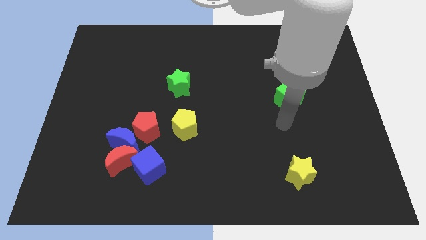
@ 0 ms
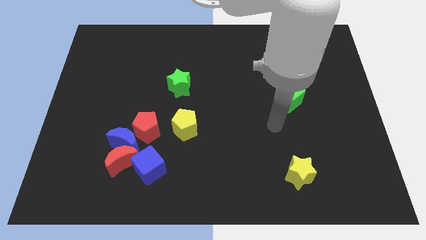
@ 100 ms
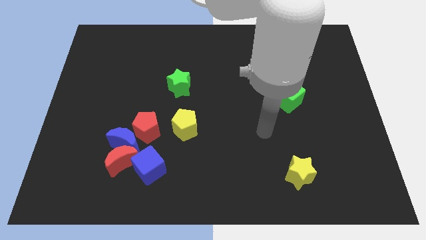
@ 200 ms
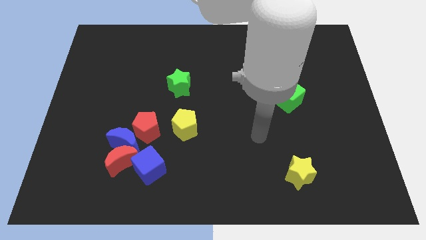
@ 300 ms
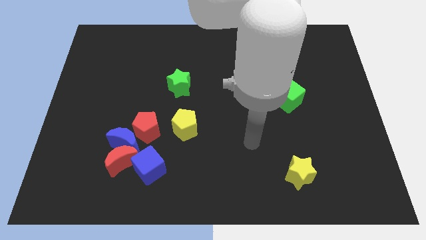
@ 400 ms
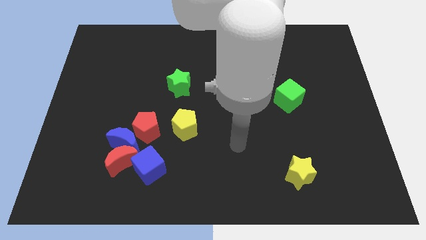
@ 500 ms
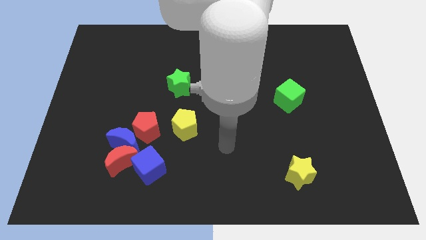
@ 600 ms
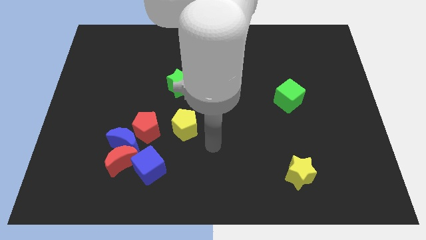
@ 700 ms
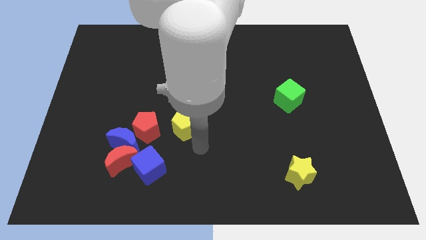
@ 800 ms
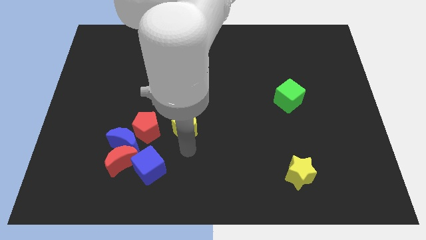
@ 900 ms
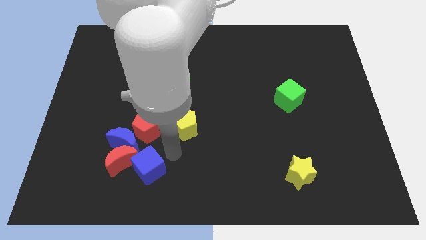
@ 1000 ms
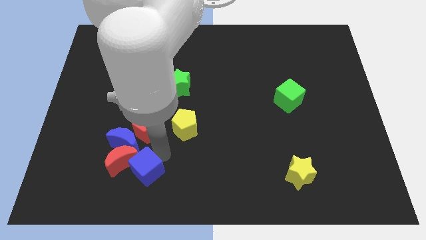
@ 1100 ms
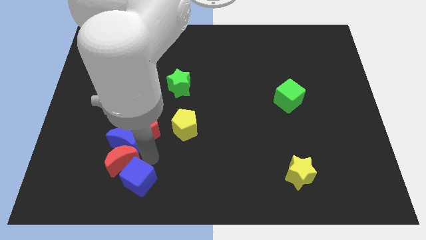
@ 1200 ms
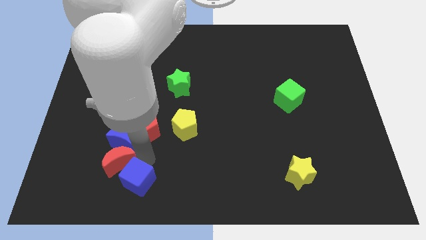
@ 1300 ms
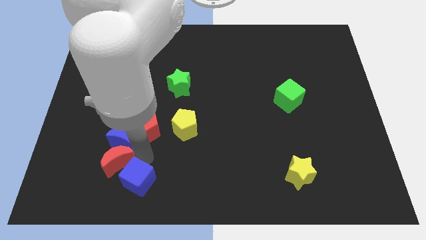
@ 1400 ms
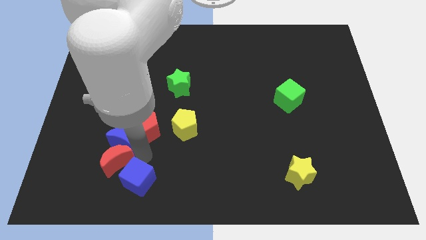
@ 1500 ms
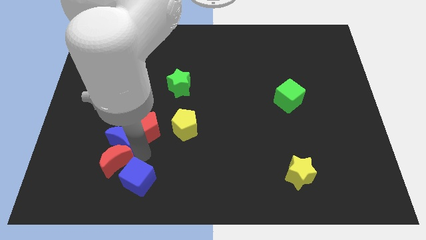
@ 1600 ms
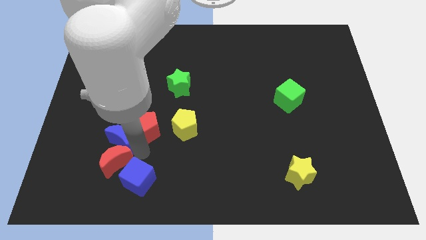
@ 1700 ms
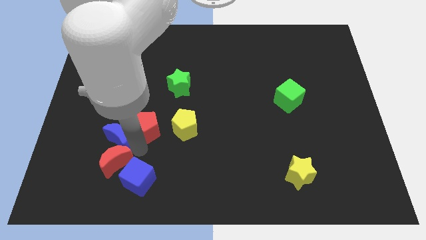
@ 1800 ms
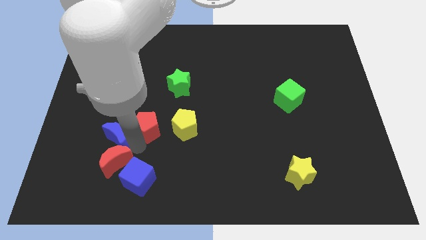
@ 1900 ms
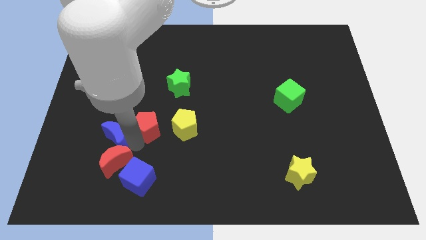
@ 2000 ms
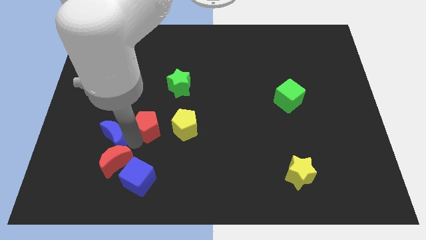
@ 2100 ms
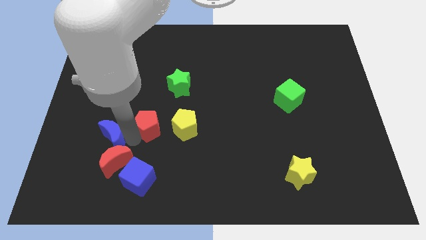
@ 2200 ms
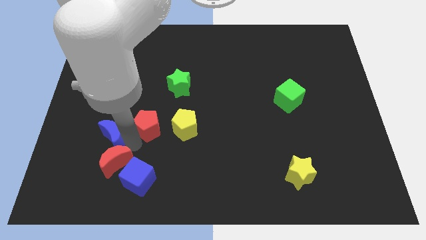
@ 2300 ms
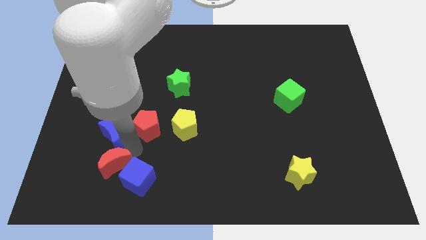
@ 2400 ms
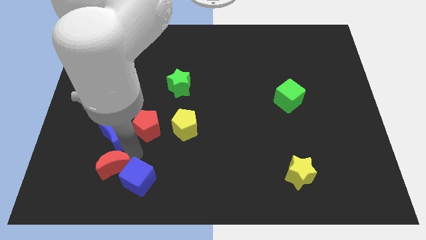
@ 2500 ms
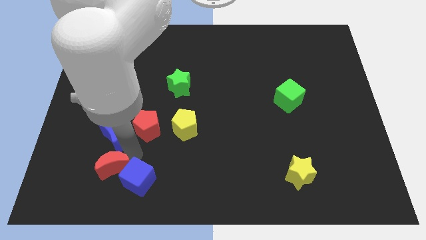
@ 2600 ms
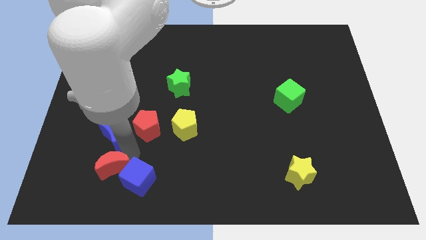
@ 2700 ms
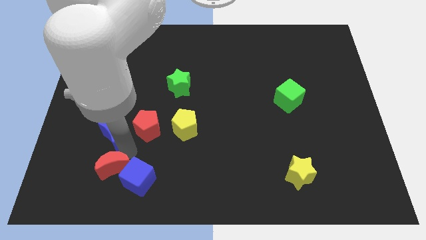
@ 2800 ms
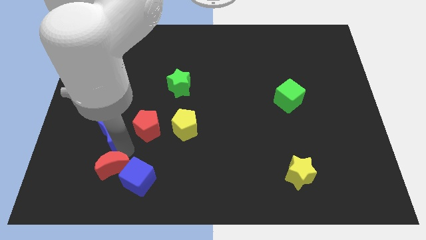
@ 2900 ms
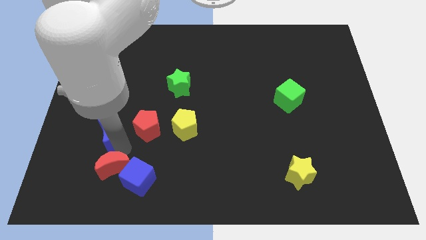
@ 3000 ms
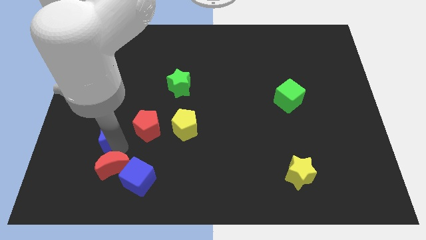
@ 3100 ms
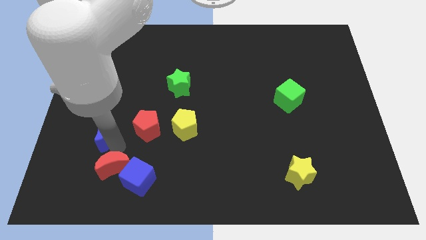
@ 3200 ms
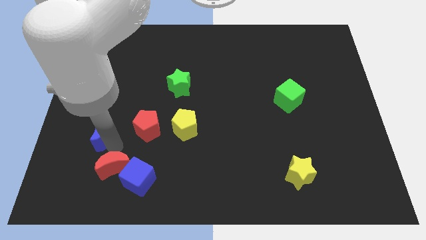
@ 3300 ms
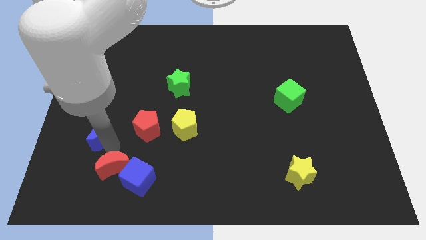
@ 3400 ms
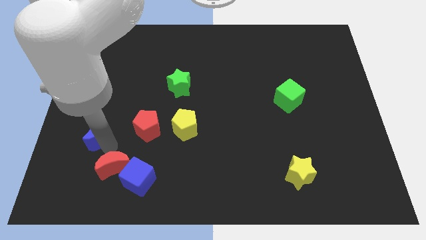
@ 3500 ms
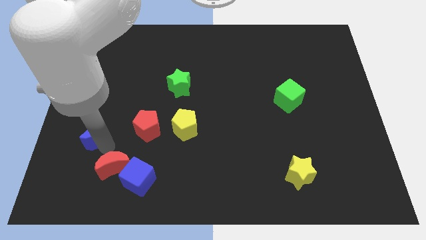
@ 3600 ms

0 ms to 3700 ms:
separate the blue moon from the red moon, red pentagon, and blue cube

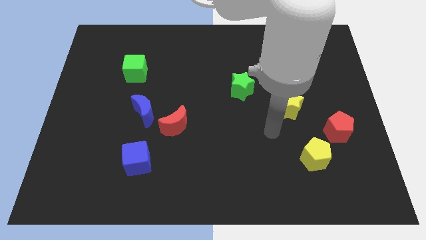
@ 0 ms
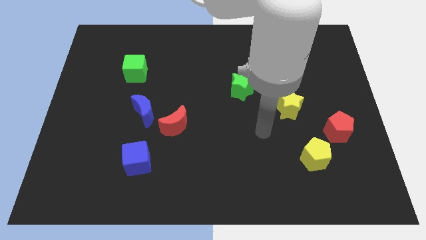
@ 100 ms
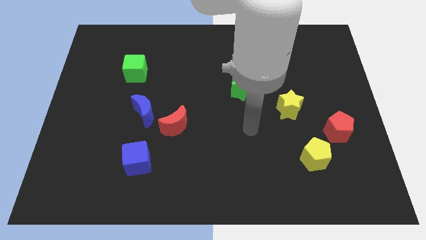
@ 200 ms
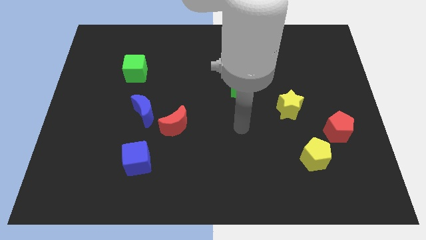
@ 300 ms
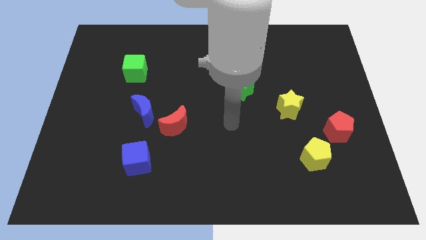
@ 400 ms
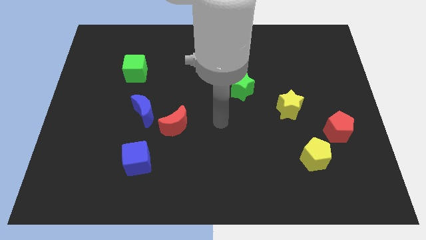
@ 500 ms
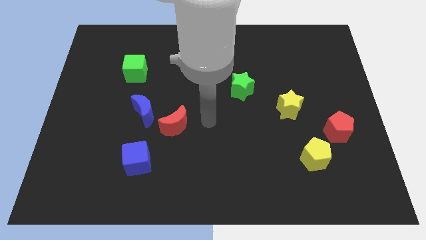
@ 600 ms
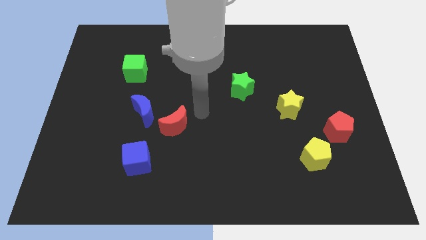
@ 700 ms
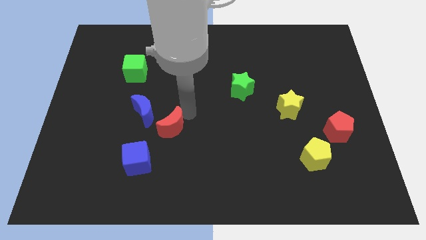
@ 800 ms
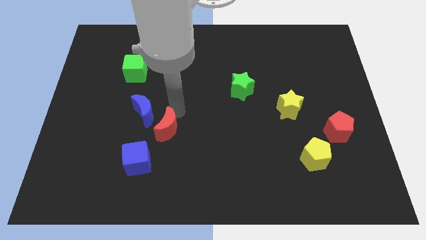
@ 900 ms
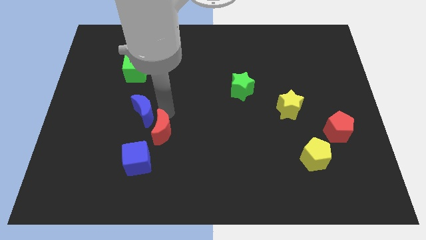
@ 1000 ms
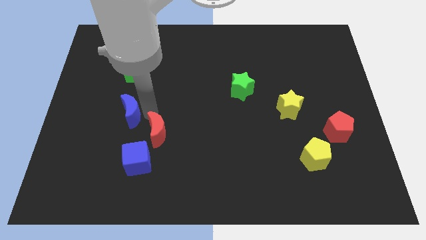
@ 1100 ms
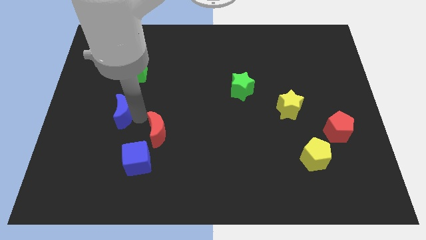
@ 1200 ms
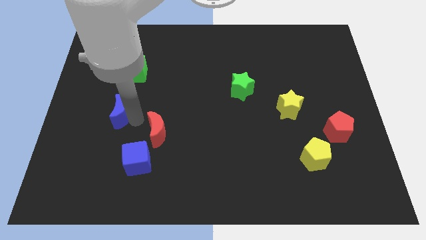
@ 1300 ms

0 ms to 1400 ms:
pull the red moon apart from the blue moon

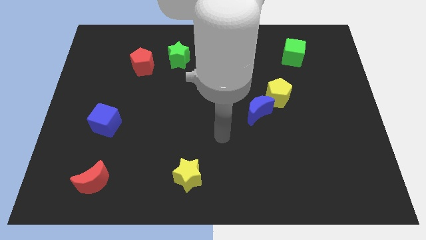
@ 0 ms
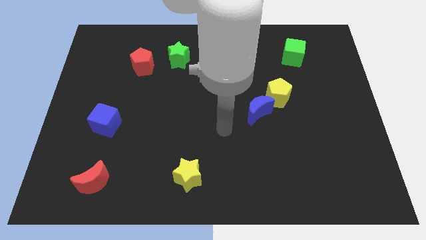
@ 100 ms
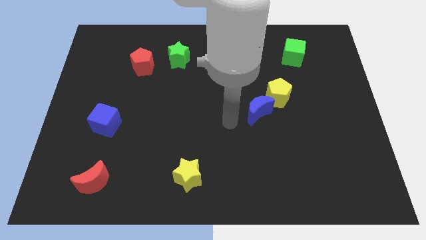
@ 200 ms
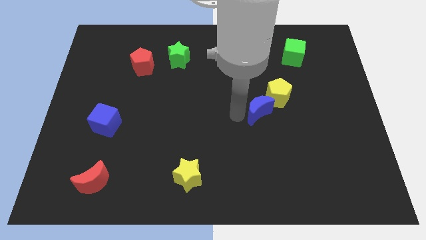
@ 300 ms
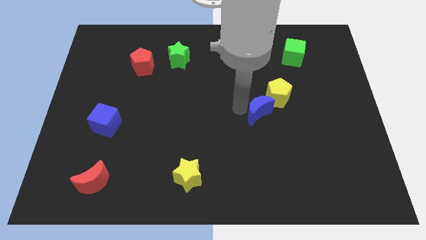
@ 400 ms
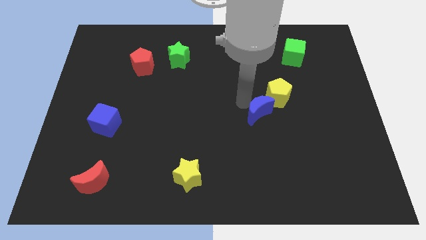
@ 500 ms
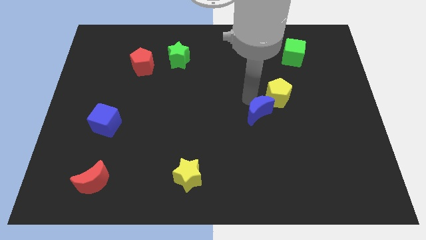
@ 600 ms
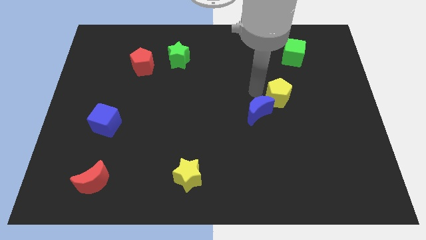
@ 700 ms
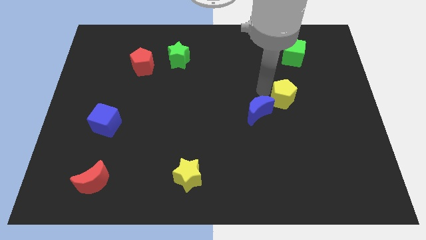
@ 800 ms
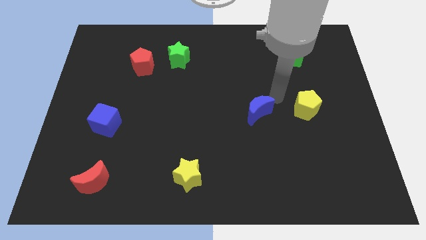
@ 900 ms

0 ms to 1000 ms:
separate the blue moon from the yellow pentagon

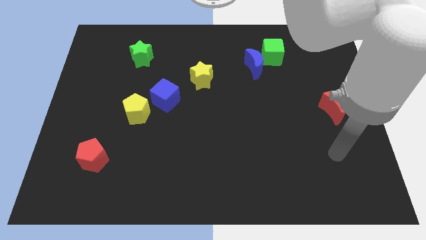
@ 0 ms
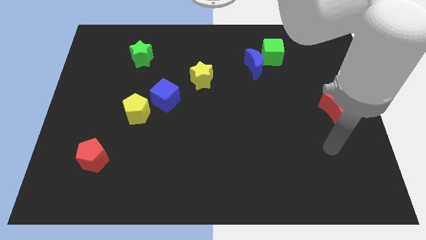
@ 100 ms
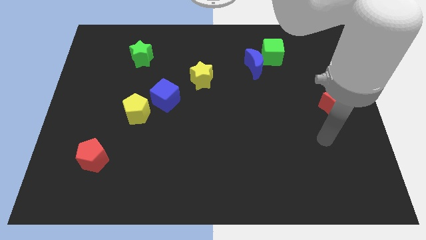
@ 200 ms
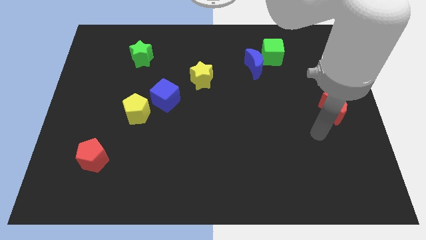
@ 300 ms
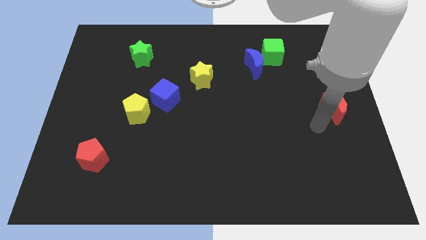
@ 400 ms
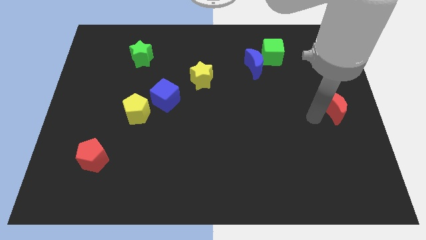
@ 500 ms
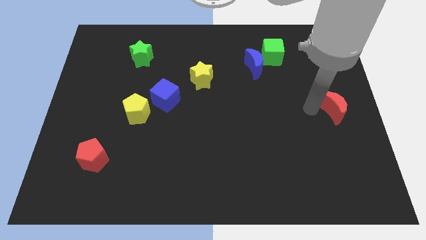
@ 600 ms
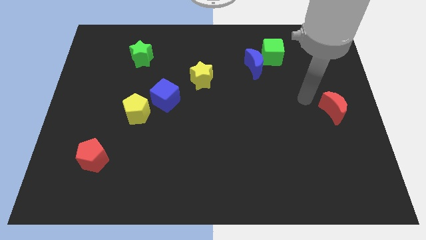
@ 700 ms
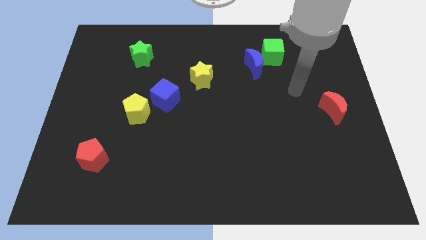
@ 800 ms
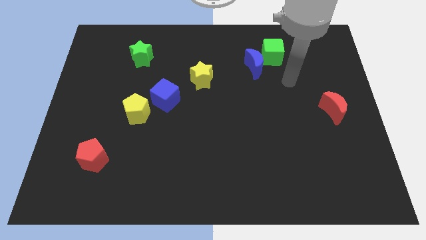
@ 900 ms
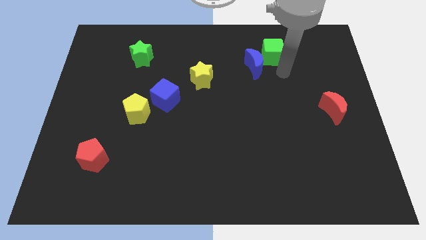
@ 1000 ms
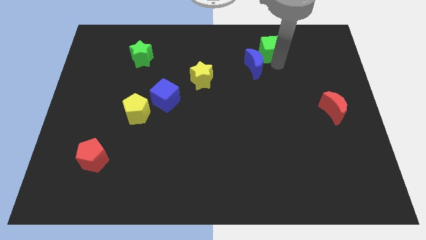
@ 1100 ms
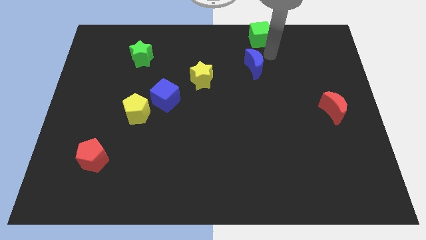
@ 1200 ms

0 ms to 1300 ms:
pull the blue moon apart from the green cube

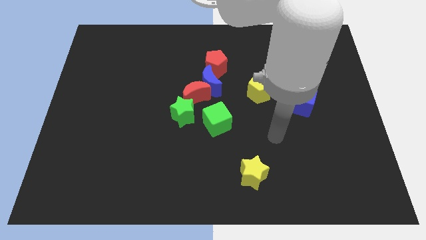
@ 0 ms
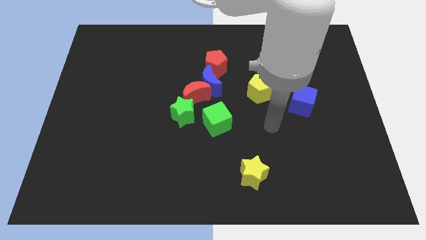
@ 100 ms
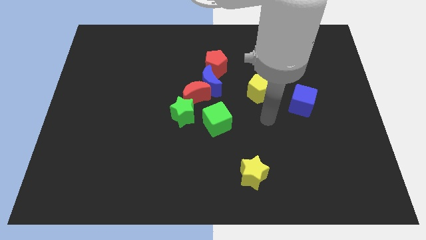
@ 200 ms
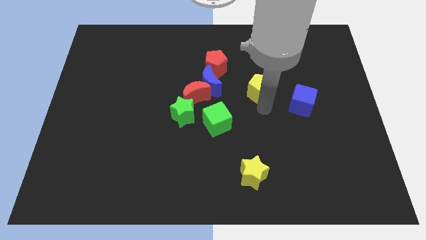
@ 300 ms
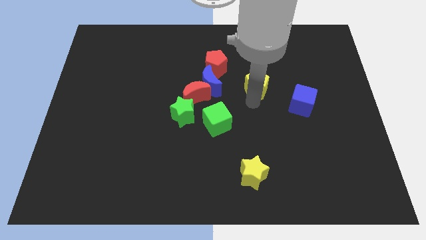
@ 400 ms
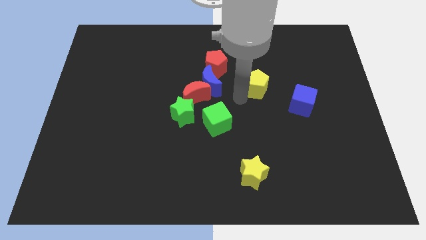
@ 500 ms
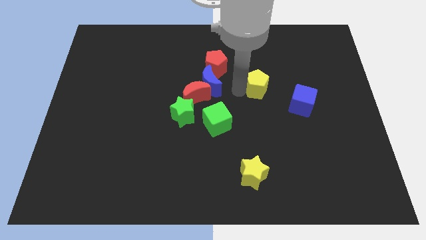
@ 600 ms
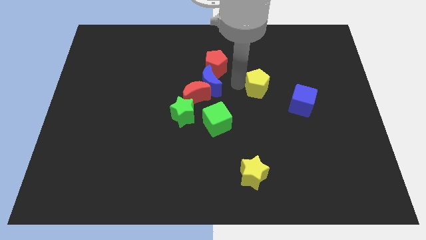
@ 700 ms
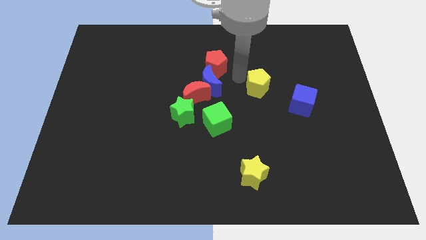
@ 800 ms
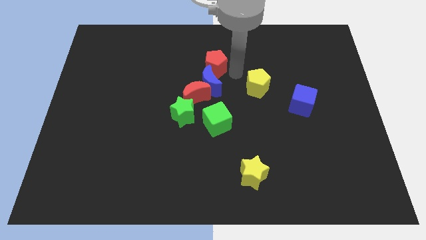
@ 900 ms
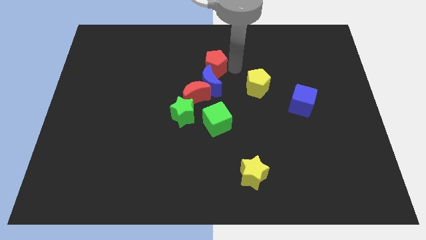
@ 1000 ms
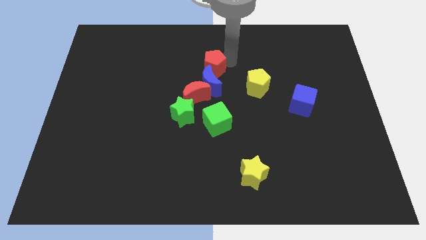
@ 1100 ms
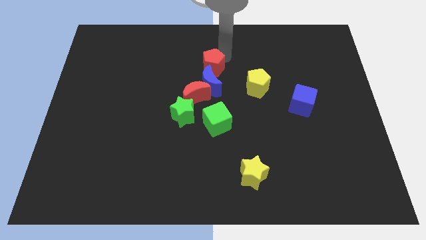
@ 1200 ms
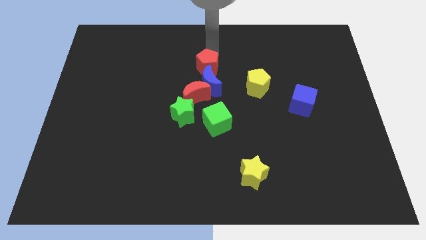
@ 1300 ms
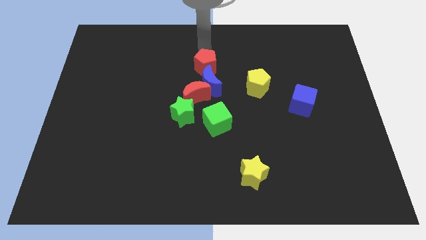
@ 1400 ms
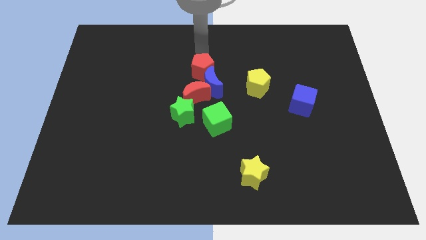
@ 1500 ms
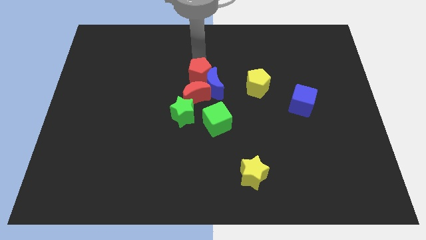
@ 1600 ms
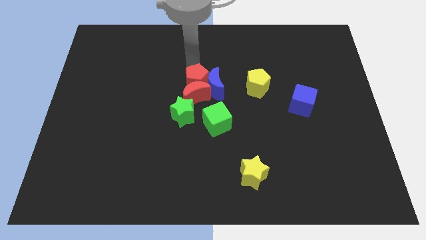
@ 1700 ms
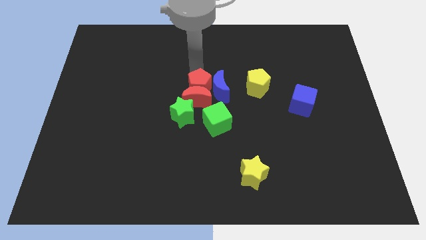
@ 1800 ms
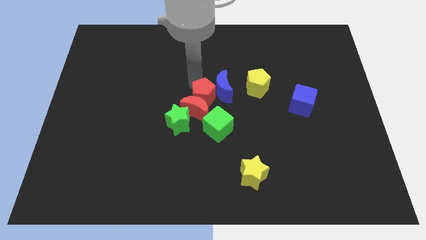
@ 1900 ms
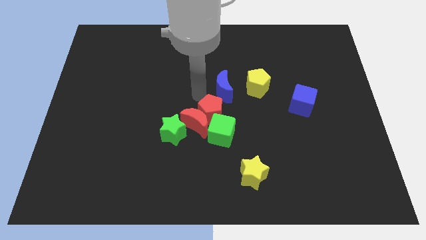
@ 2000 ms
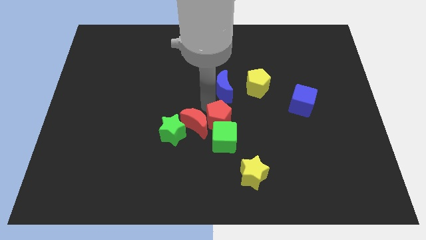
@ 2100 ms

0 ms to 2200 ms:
move the blue moon away from the red moon and red pentagon
